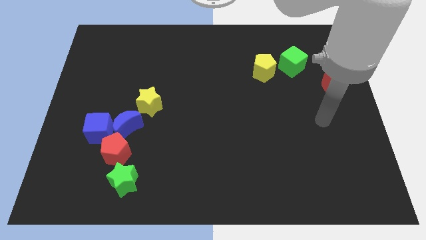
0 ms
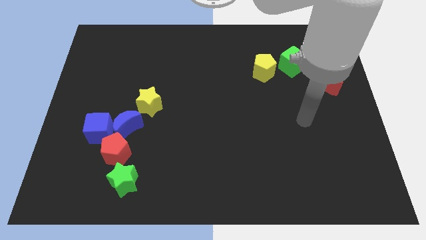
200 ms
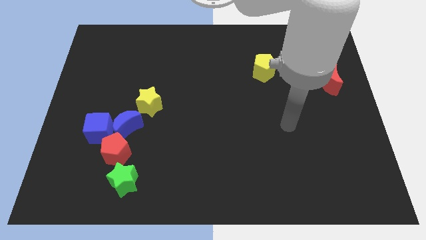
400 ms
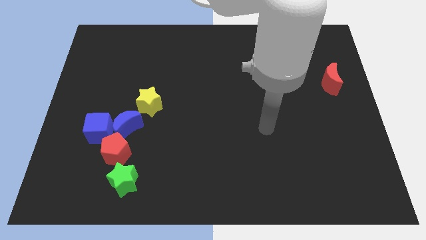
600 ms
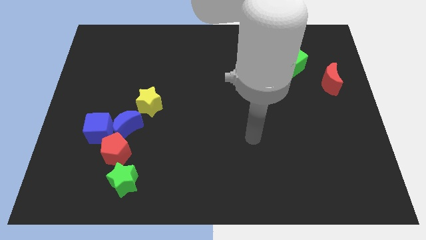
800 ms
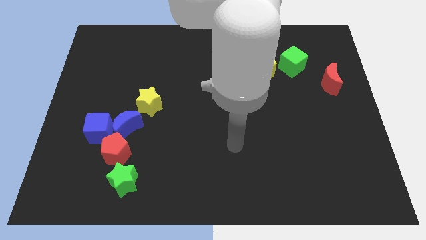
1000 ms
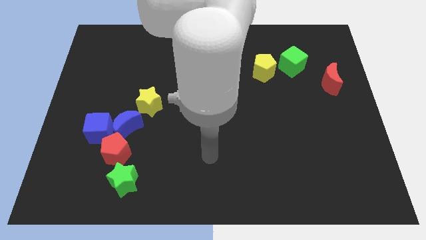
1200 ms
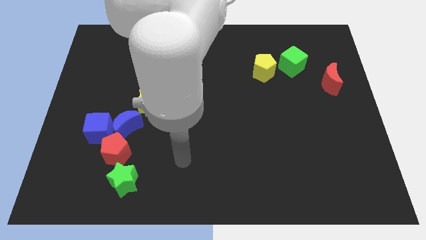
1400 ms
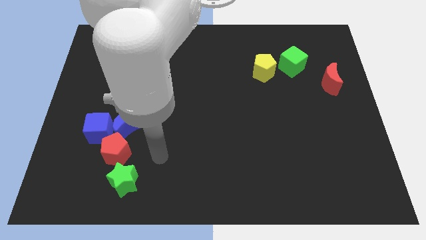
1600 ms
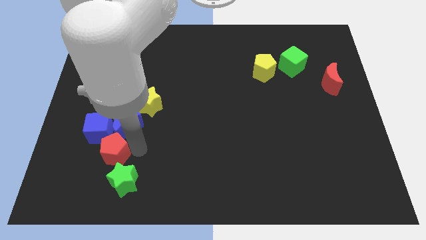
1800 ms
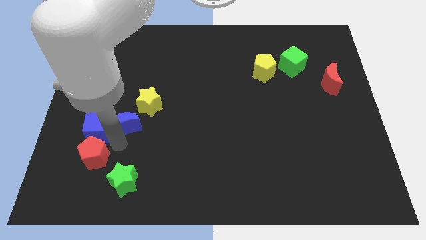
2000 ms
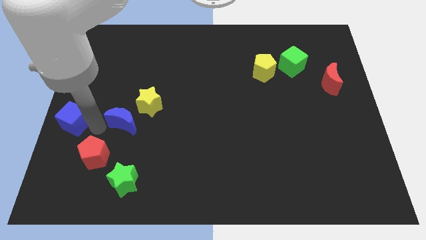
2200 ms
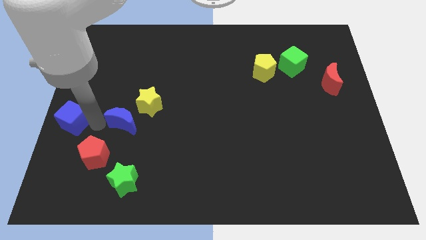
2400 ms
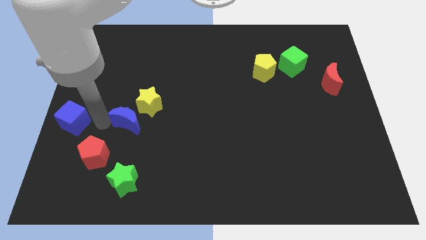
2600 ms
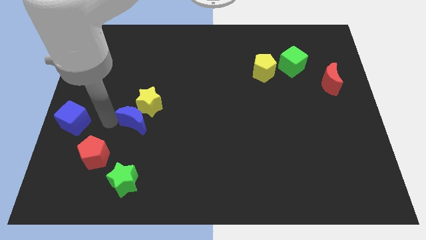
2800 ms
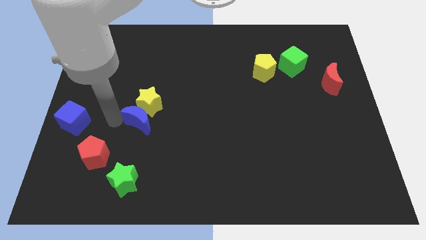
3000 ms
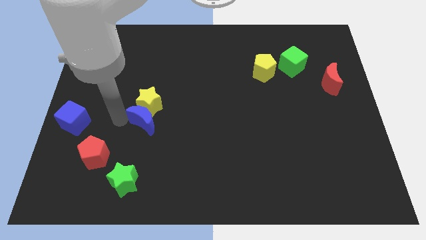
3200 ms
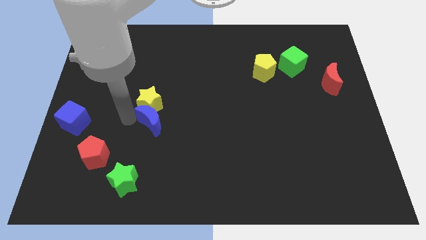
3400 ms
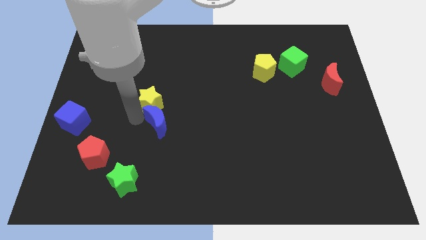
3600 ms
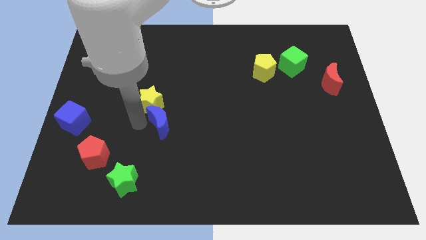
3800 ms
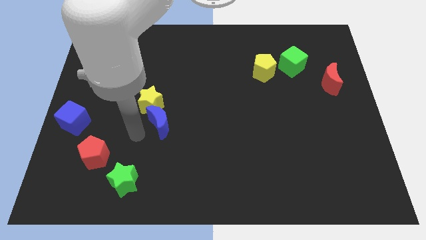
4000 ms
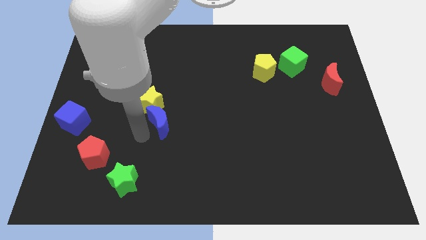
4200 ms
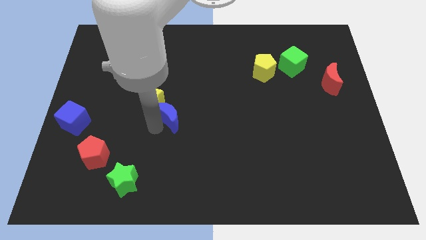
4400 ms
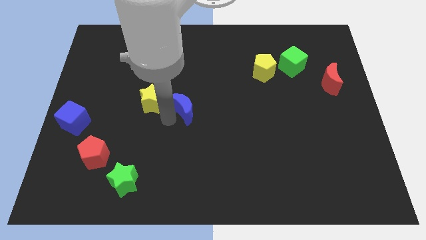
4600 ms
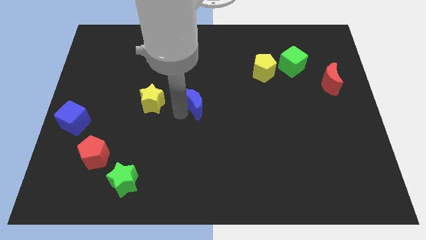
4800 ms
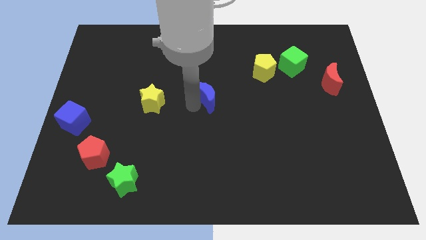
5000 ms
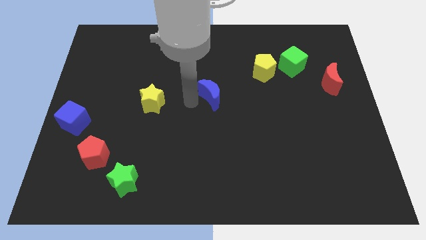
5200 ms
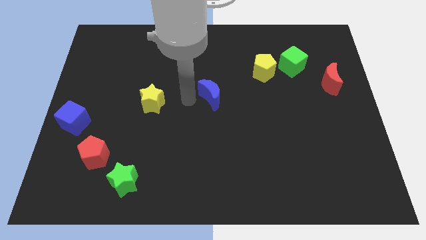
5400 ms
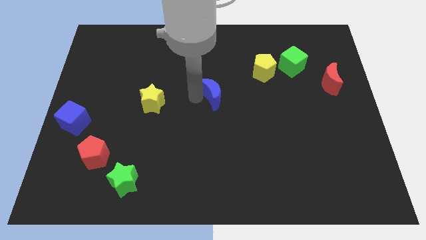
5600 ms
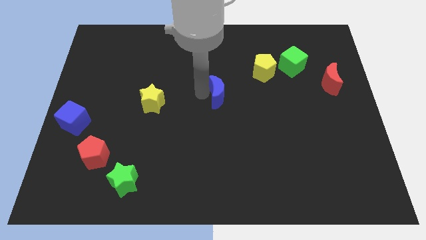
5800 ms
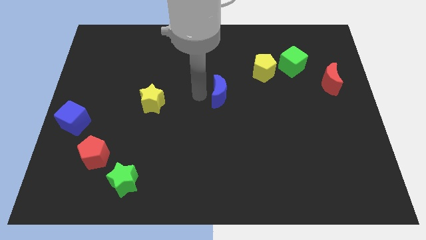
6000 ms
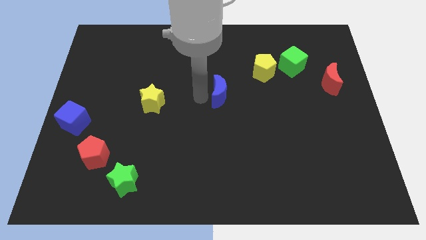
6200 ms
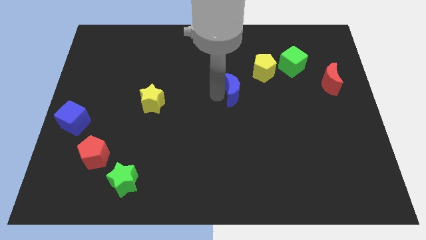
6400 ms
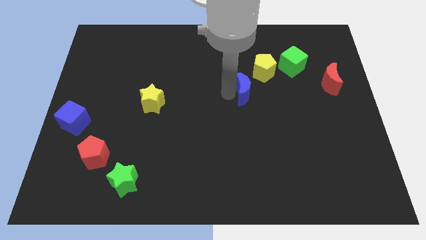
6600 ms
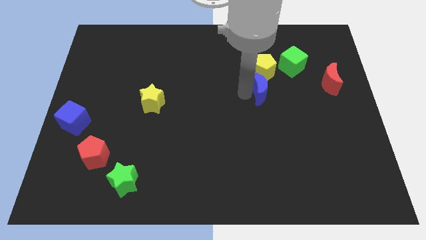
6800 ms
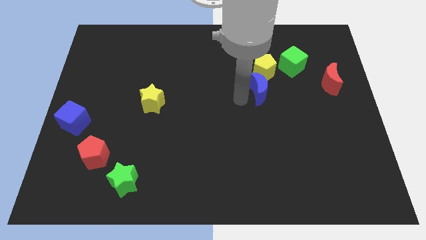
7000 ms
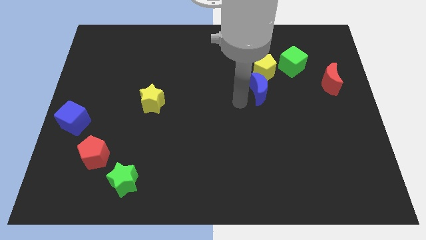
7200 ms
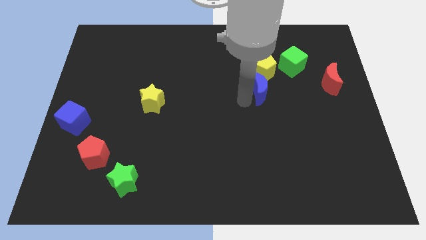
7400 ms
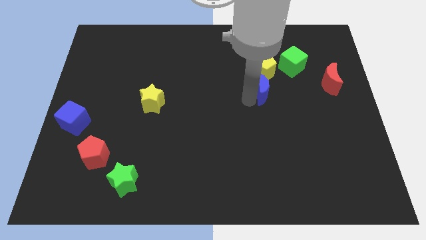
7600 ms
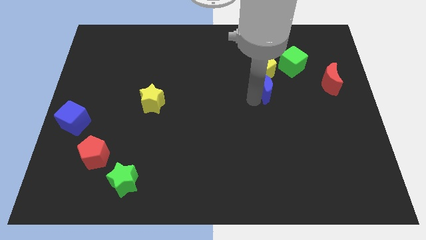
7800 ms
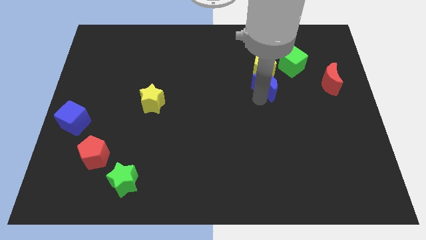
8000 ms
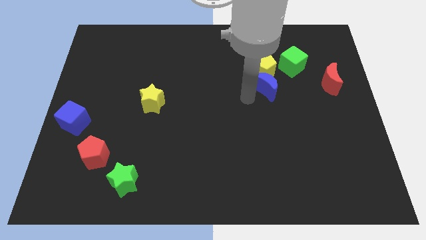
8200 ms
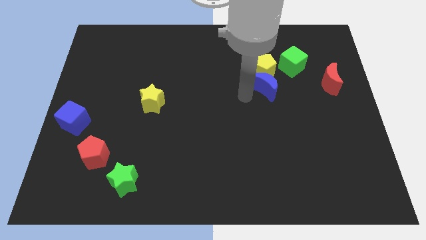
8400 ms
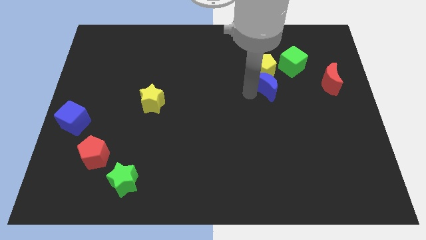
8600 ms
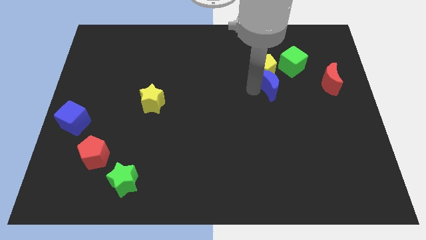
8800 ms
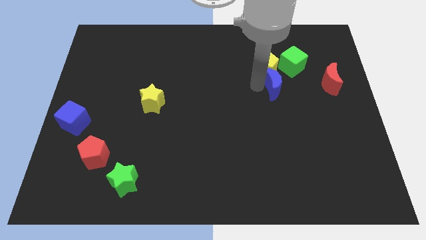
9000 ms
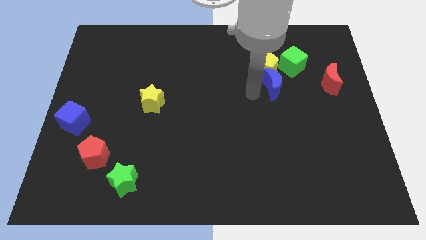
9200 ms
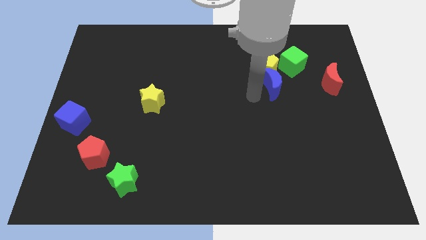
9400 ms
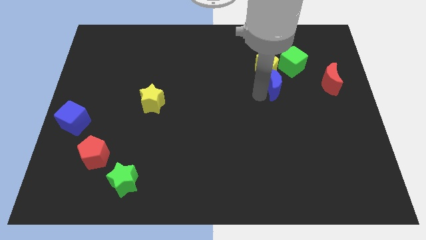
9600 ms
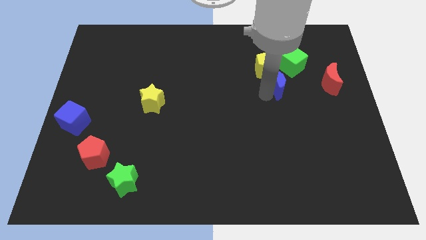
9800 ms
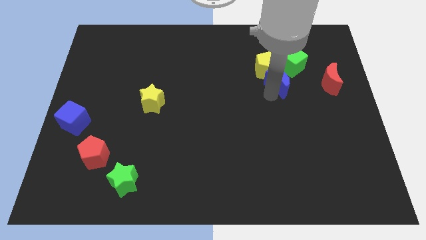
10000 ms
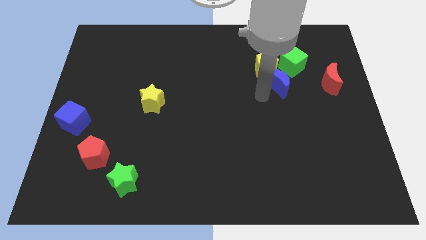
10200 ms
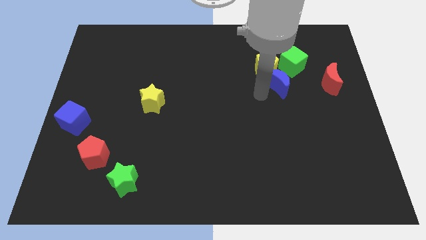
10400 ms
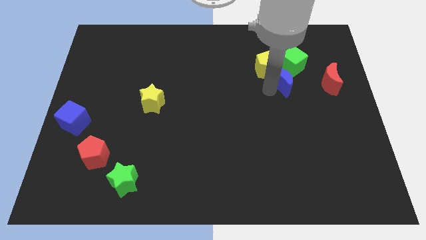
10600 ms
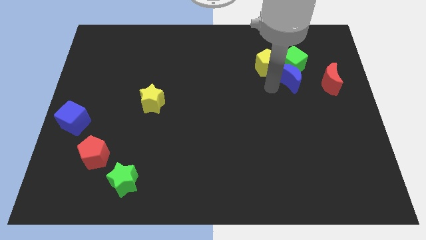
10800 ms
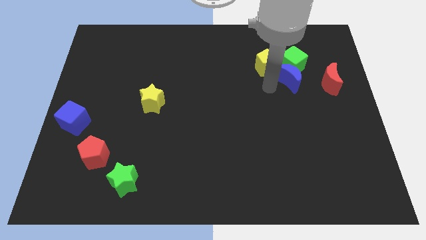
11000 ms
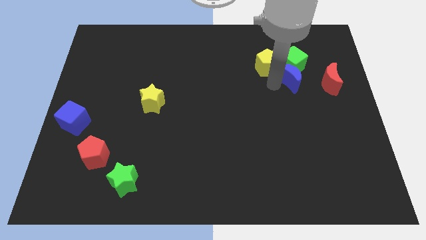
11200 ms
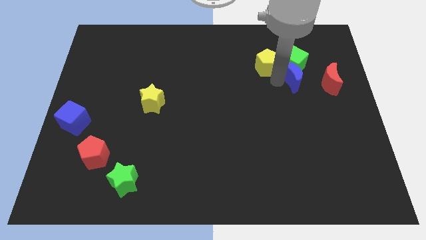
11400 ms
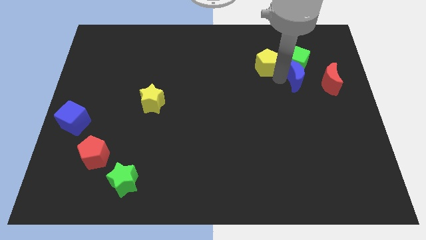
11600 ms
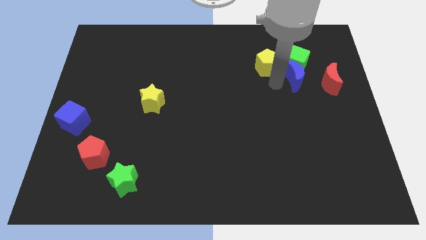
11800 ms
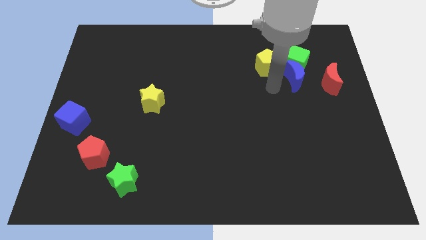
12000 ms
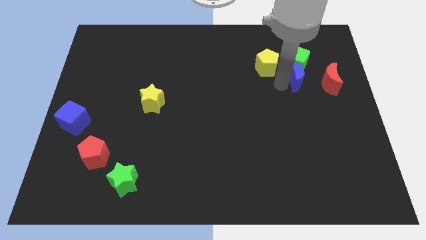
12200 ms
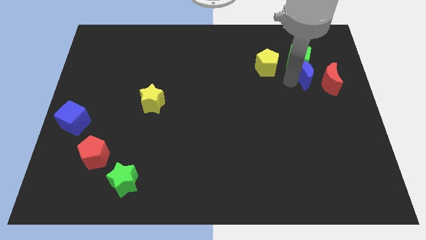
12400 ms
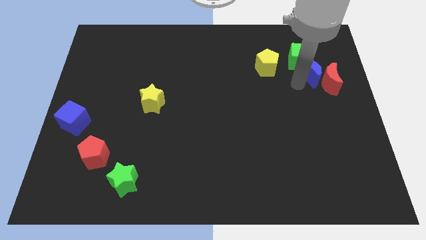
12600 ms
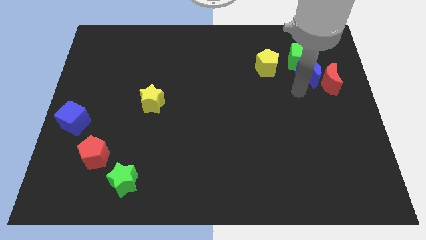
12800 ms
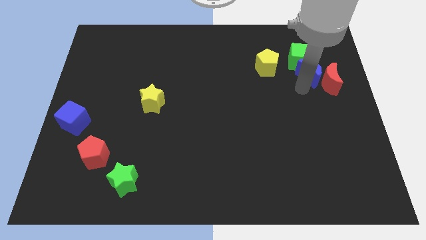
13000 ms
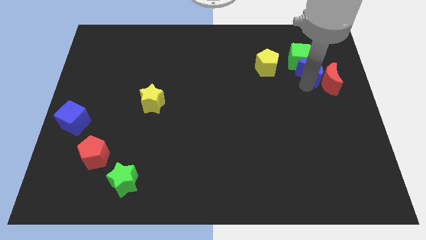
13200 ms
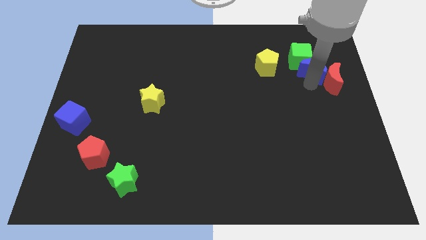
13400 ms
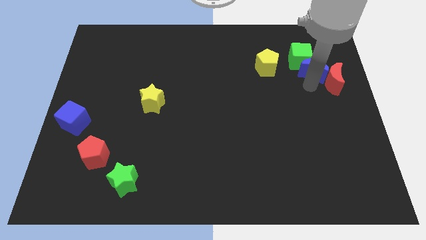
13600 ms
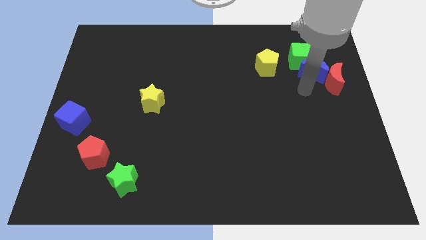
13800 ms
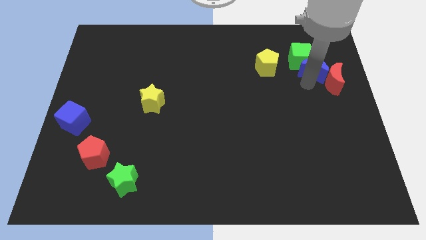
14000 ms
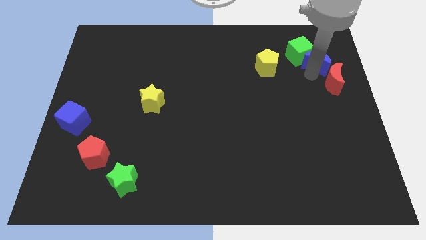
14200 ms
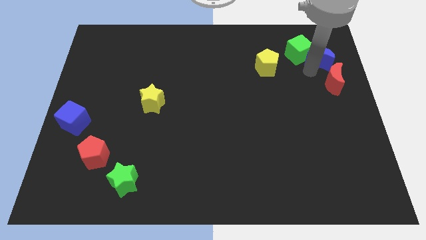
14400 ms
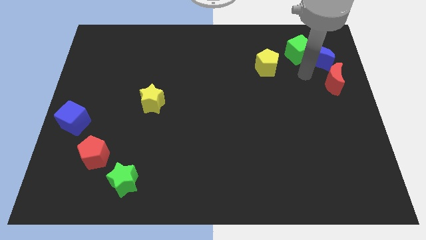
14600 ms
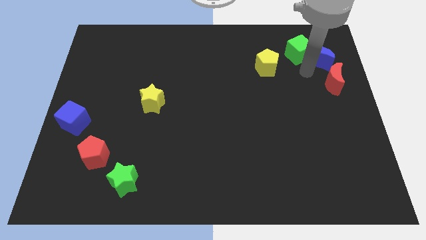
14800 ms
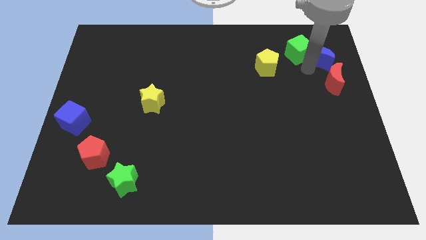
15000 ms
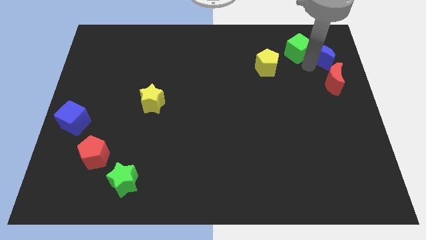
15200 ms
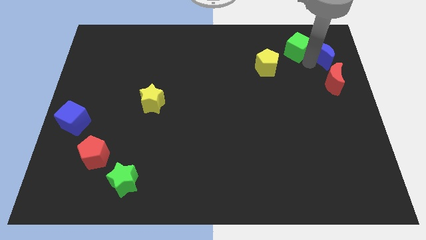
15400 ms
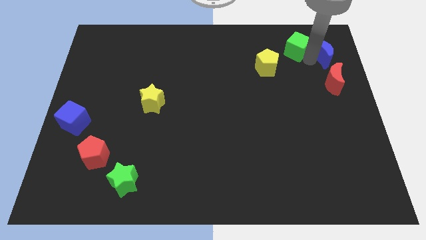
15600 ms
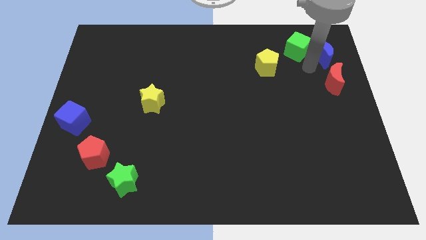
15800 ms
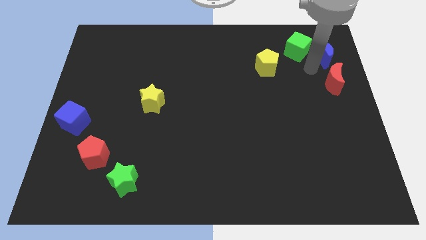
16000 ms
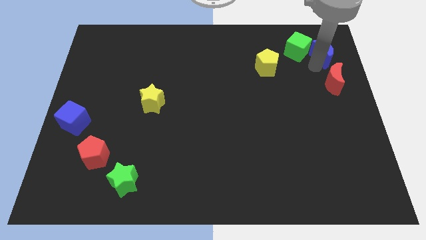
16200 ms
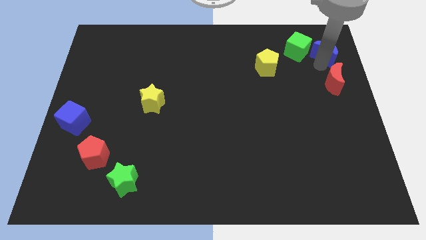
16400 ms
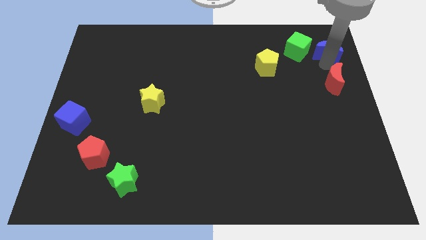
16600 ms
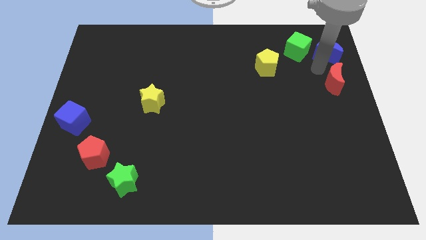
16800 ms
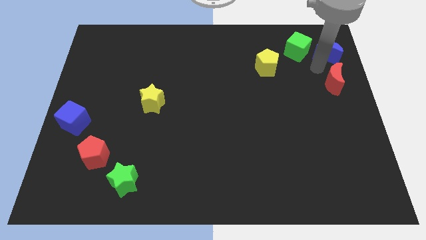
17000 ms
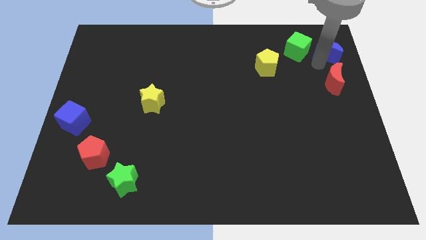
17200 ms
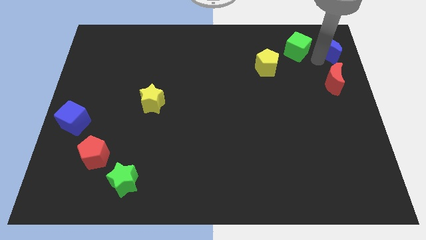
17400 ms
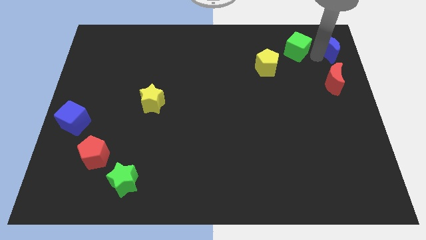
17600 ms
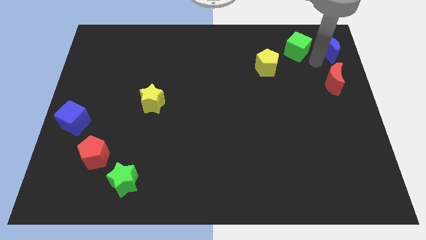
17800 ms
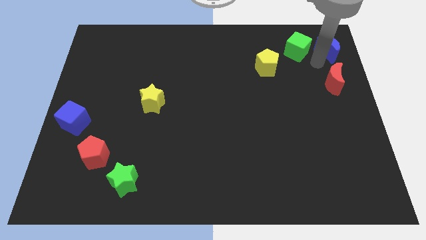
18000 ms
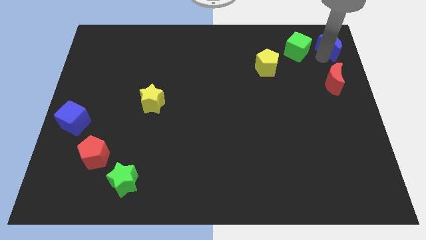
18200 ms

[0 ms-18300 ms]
move the blue moon to the upper right corner
